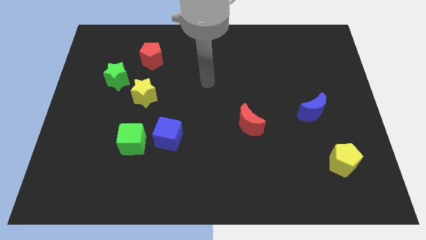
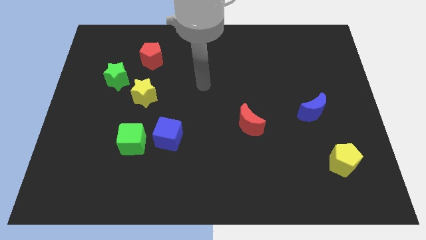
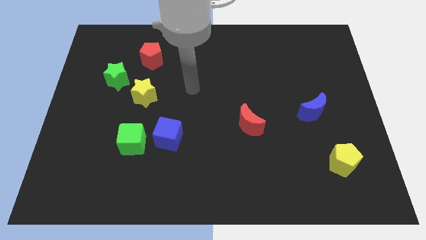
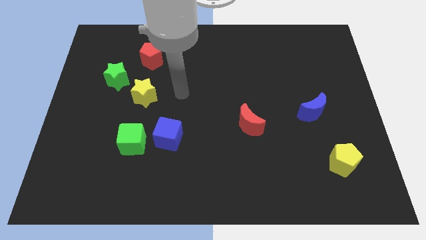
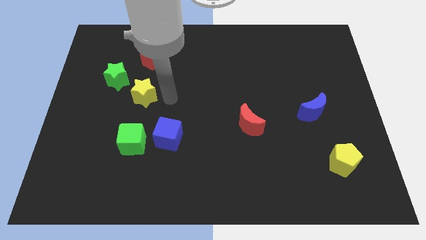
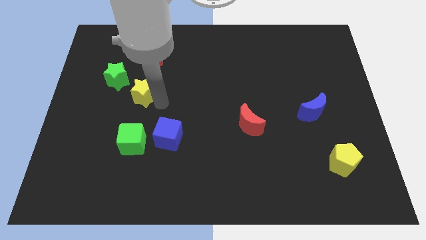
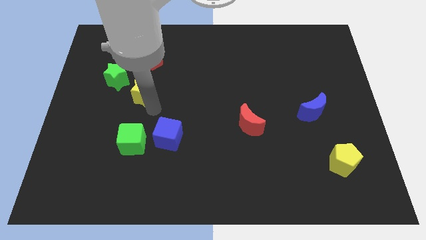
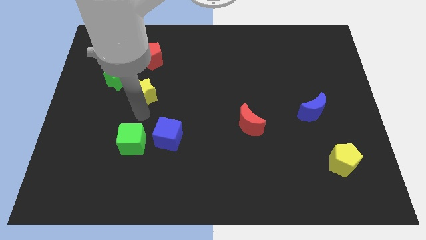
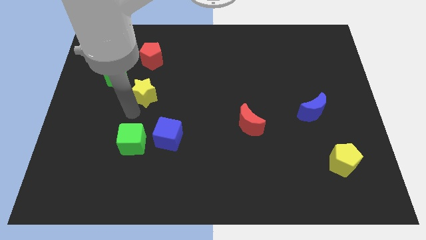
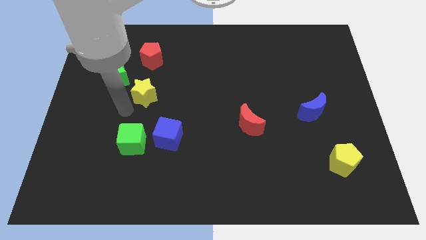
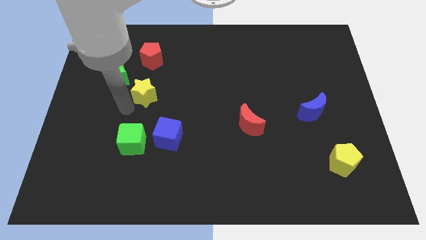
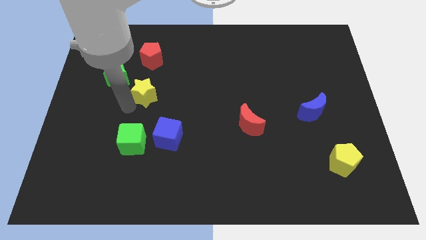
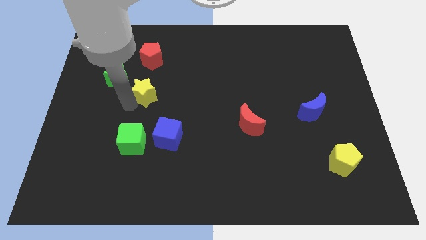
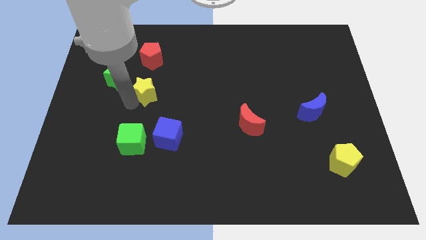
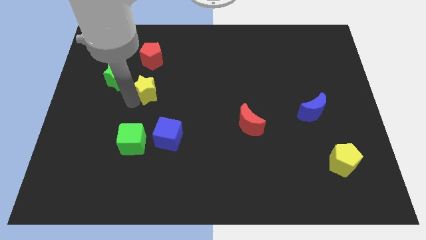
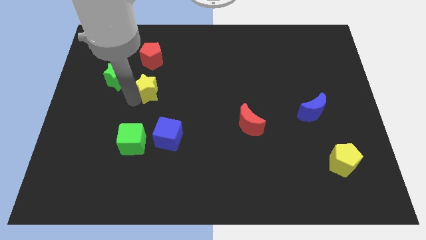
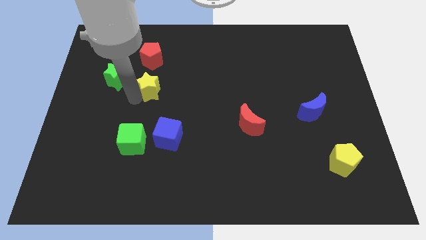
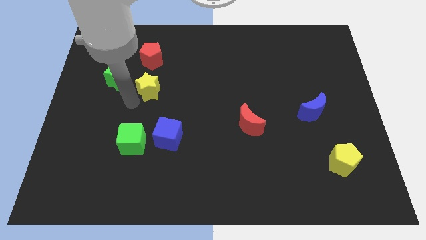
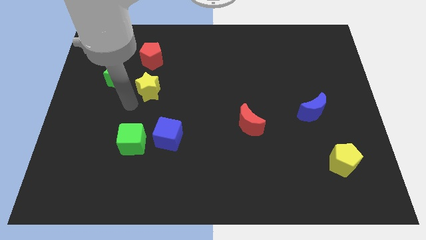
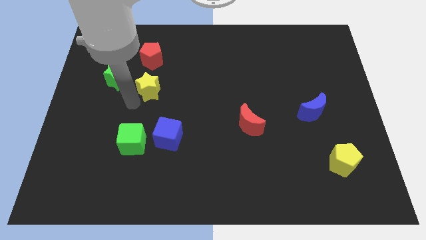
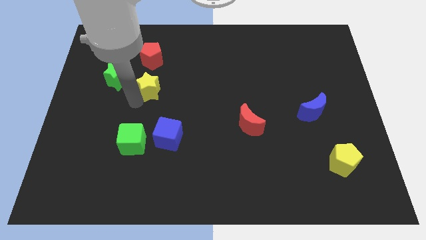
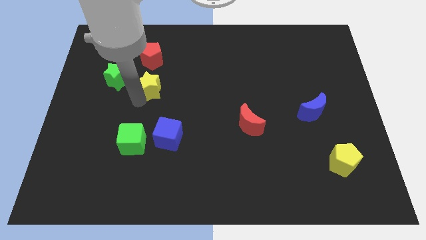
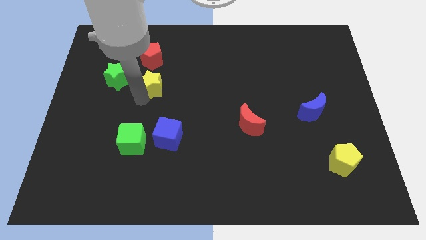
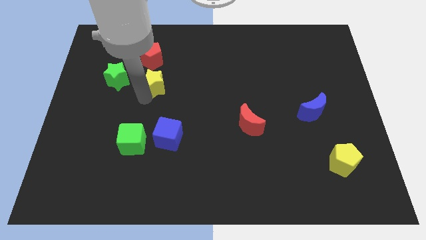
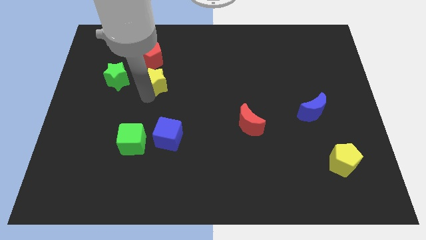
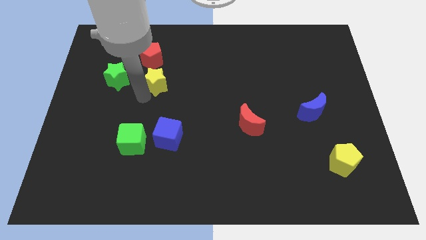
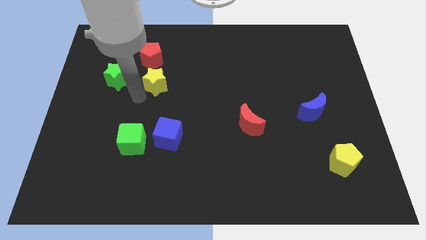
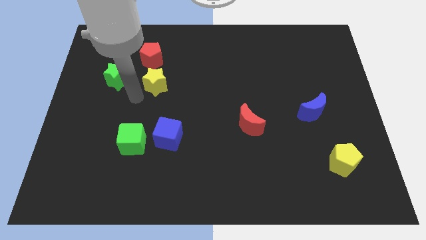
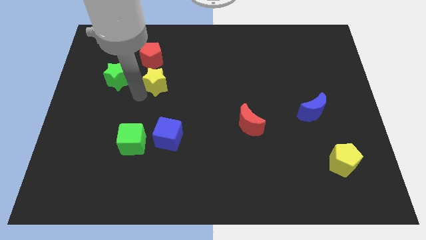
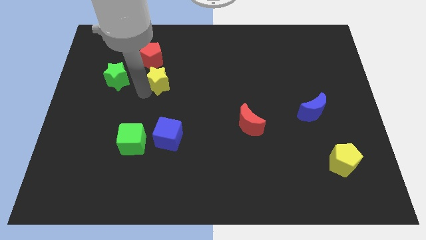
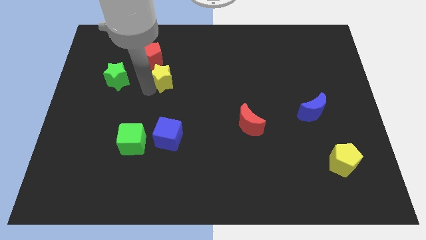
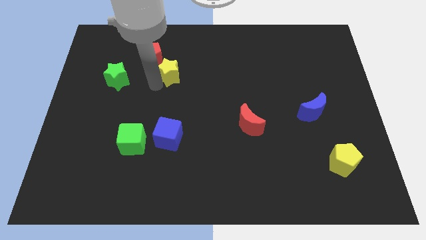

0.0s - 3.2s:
slightly slide the yellow star up and to the right

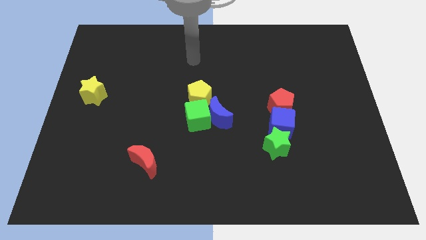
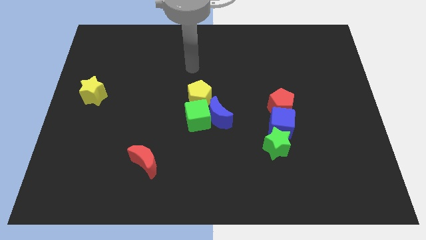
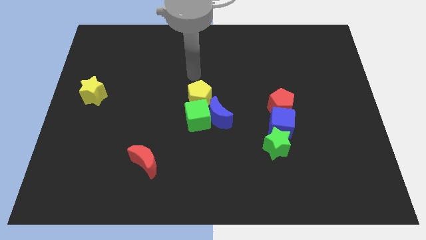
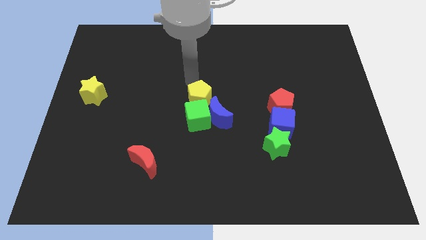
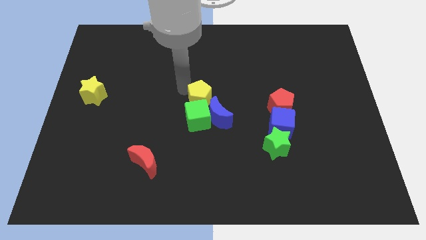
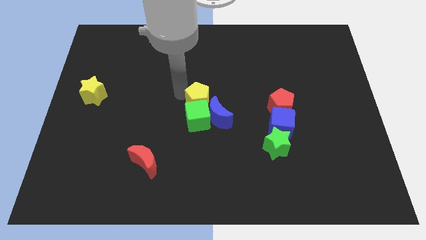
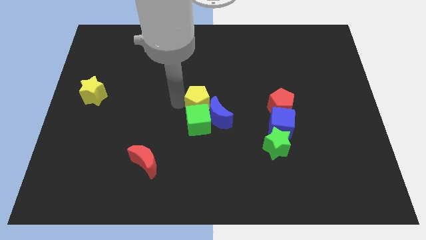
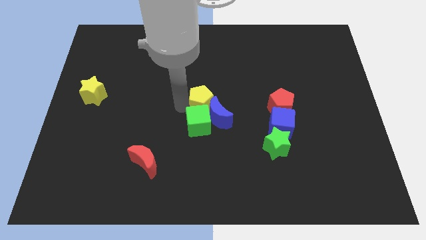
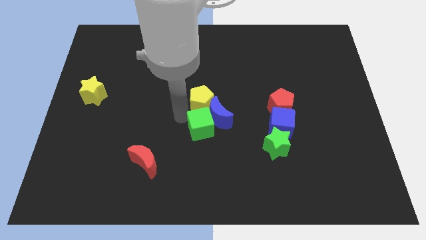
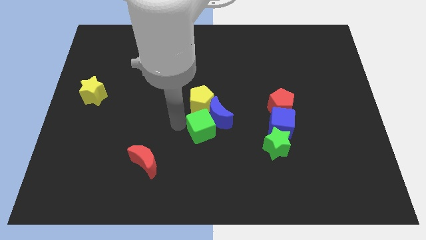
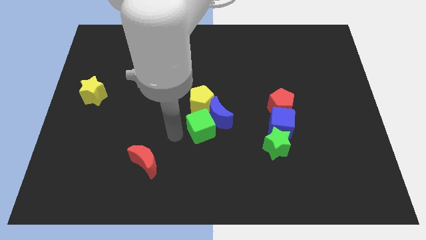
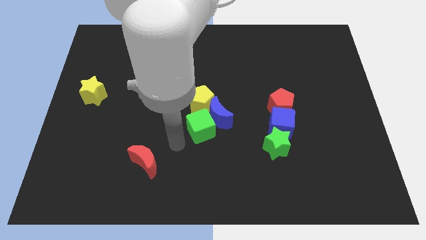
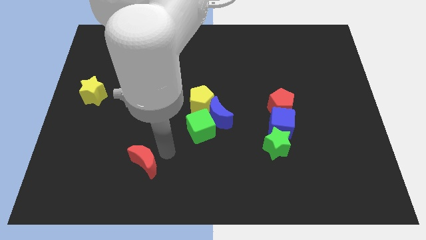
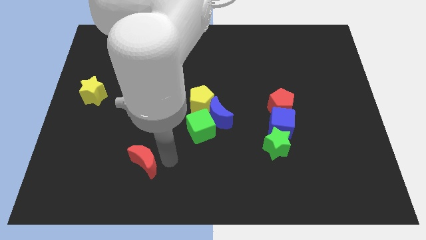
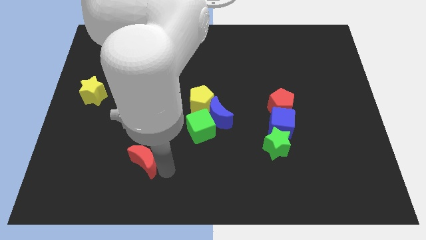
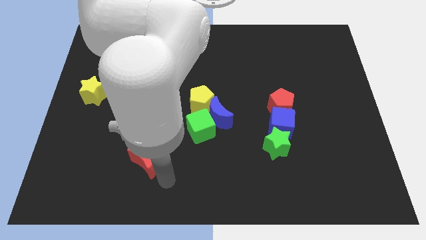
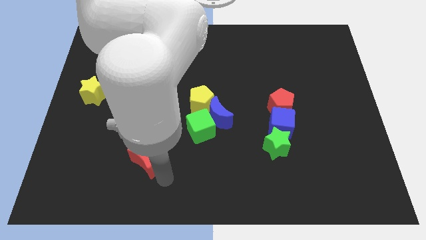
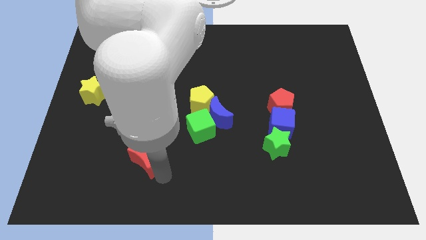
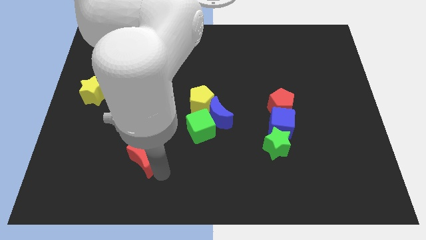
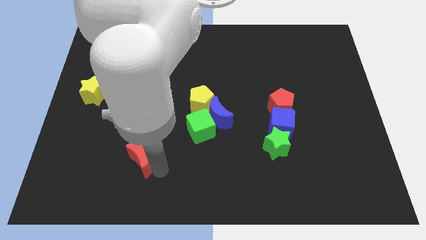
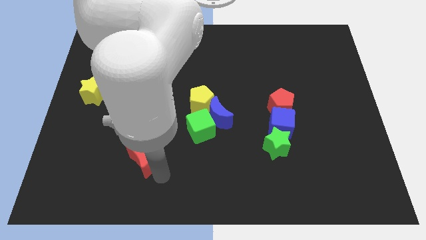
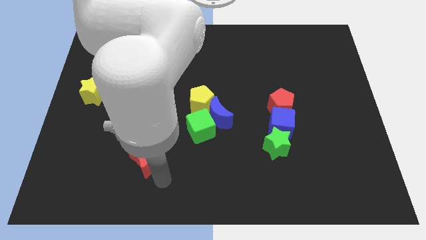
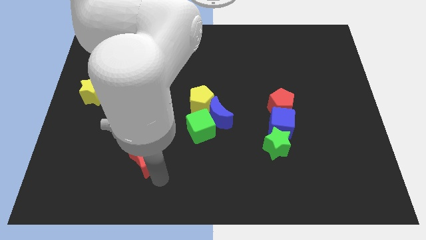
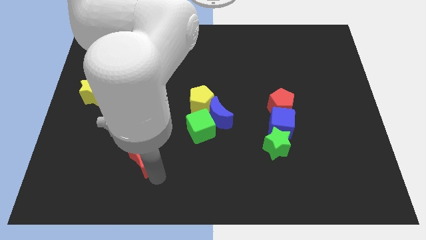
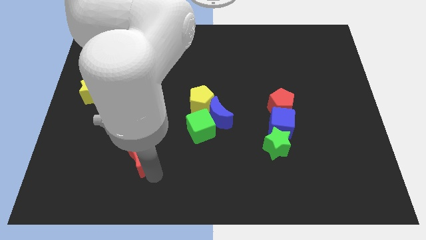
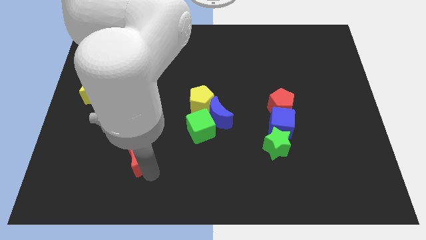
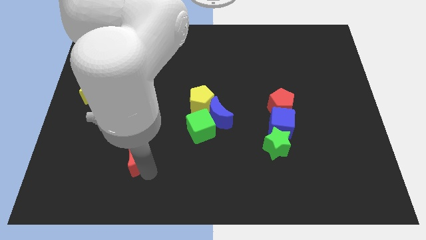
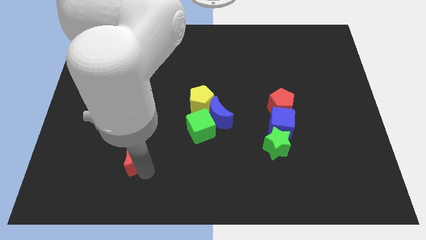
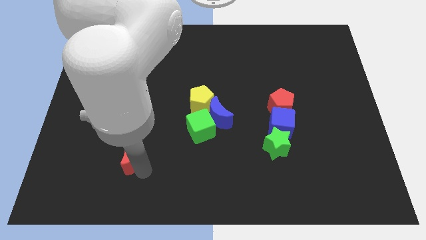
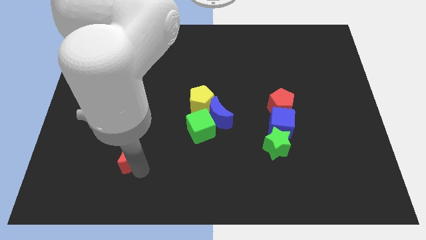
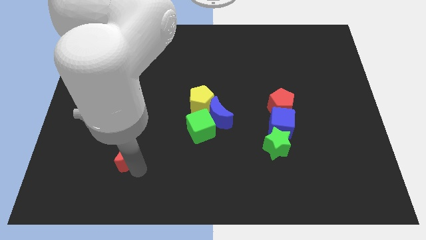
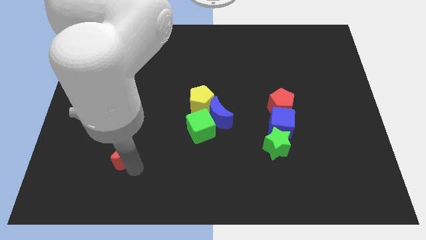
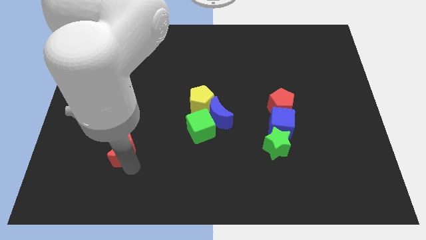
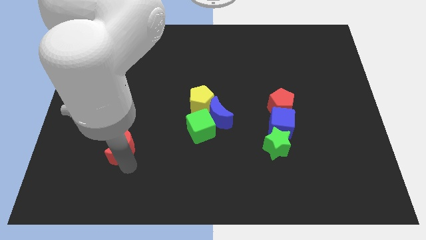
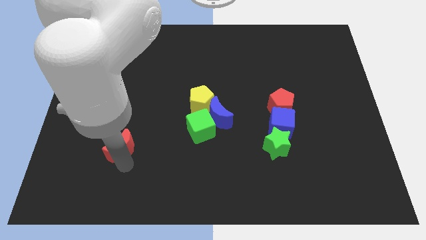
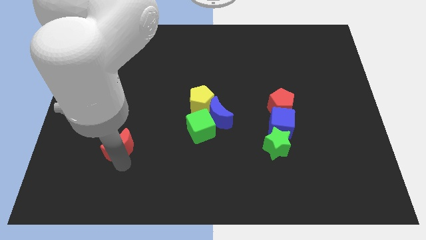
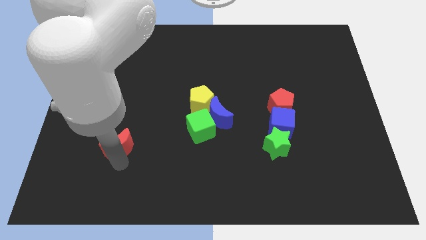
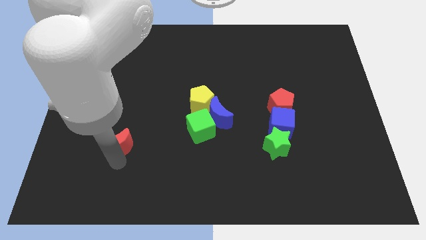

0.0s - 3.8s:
slightly slide the red moon up and to the left diagonally

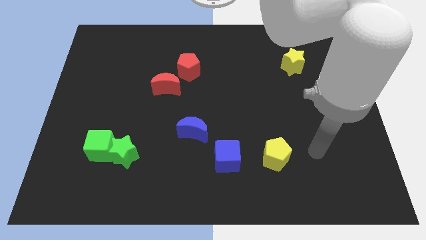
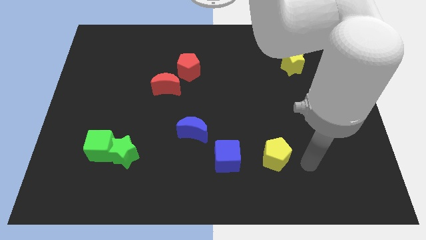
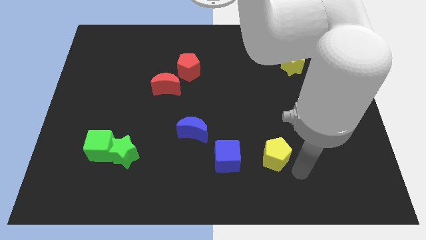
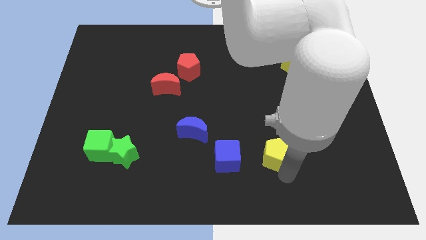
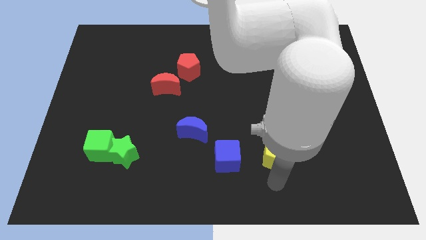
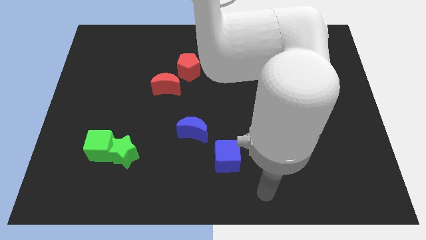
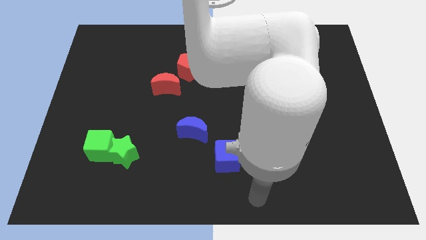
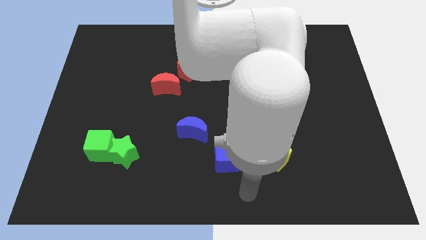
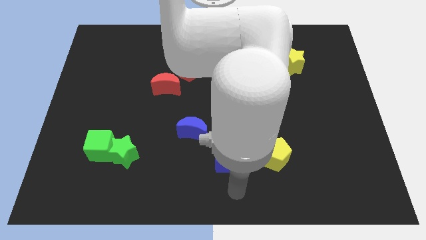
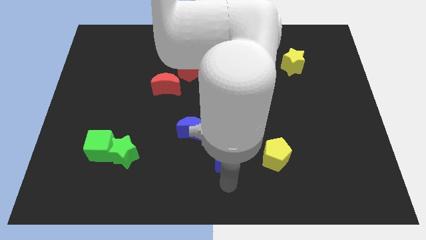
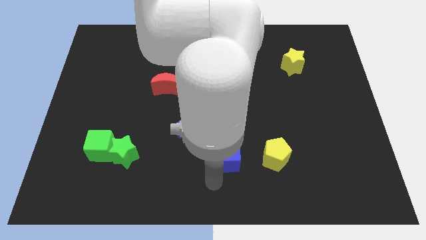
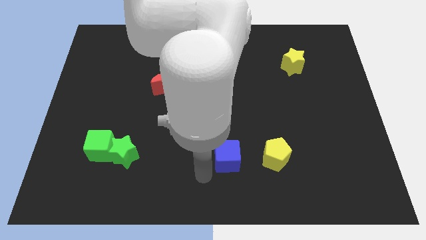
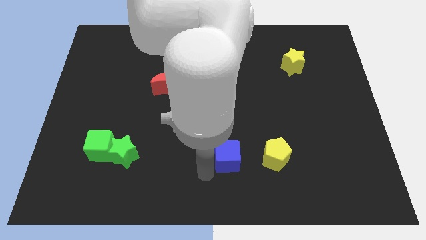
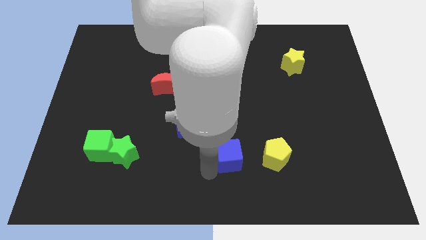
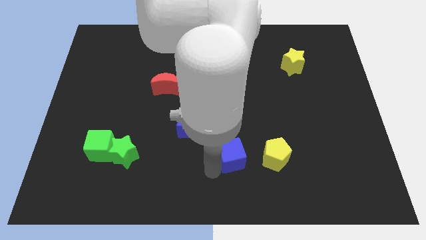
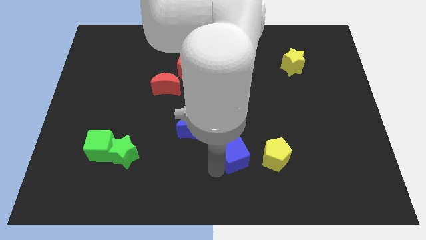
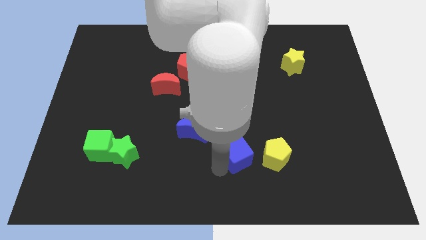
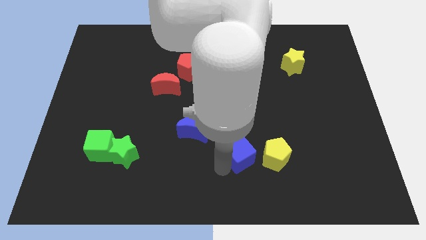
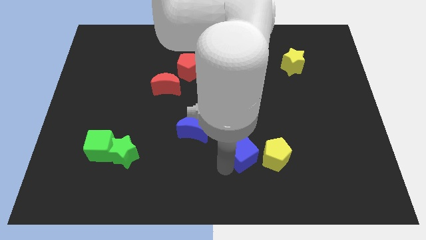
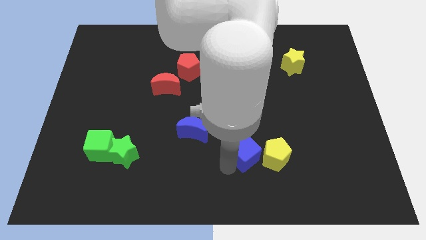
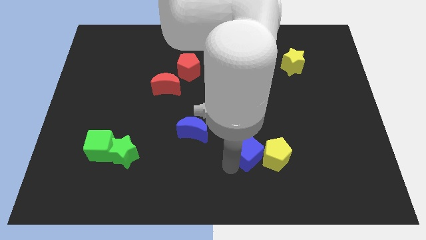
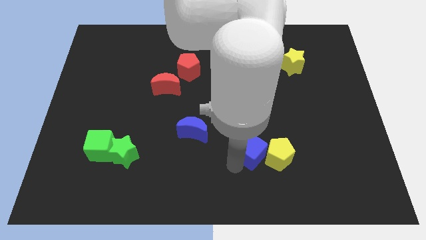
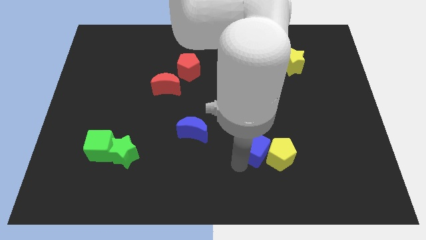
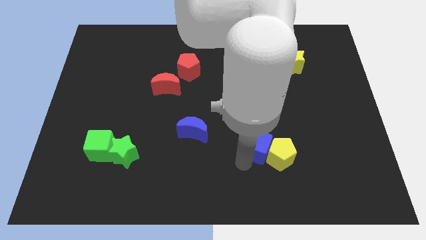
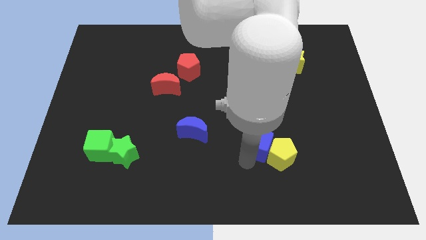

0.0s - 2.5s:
slide the blue cube somewhat diagonally up and to the right
